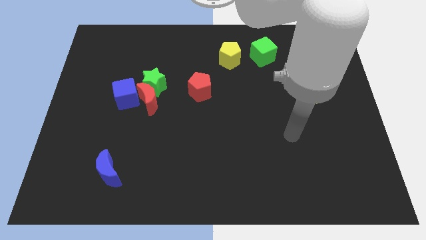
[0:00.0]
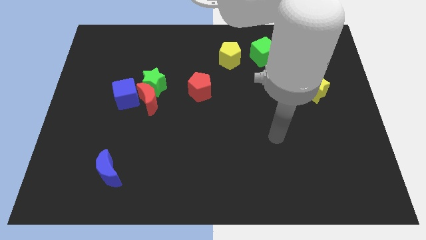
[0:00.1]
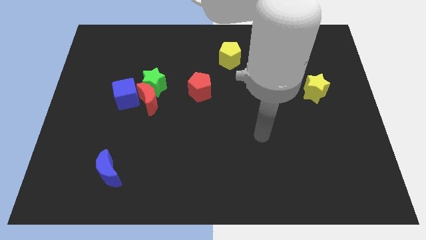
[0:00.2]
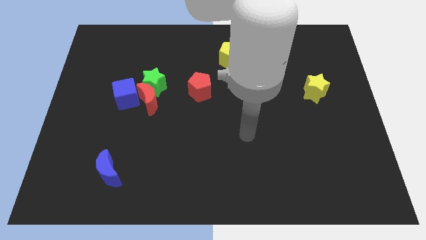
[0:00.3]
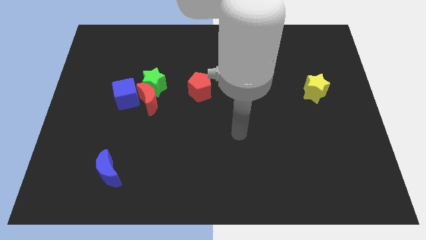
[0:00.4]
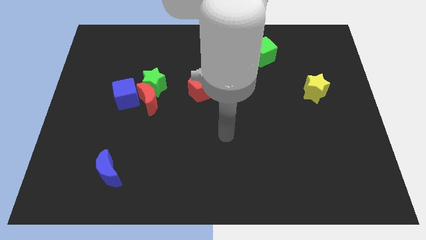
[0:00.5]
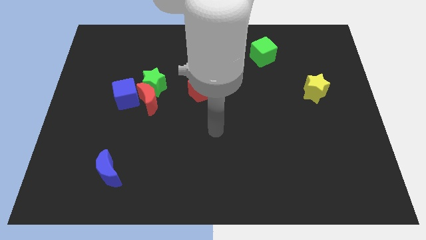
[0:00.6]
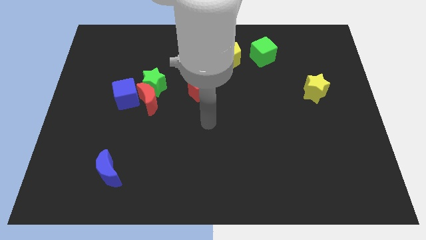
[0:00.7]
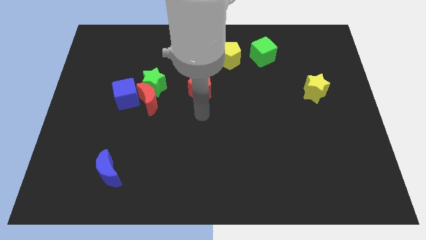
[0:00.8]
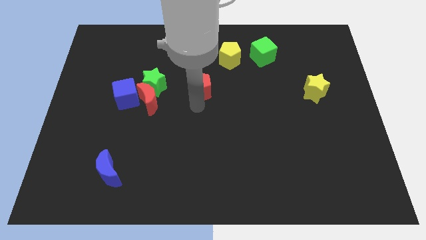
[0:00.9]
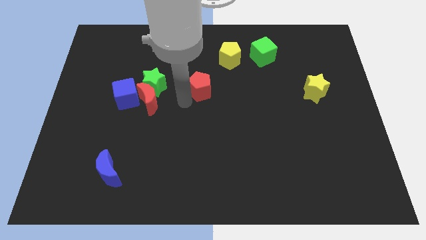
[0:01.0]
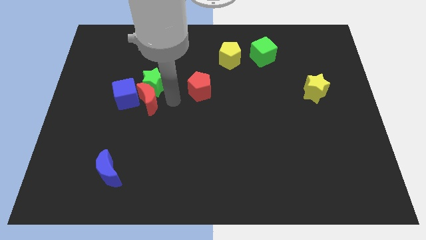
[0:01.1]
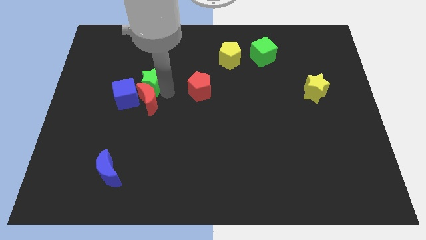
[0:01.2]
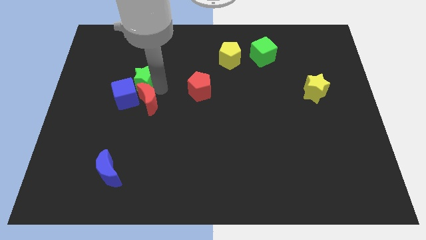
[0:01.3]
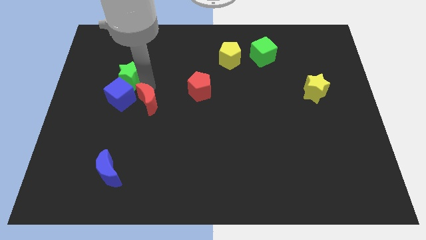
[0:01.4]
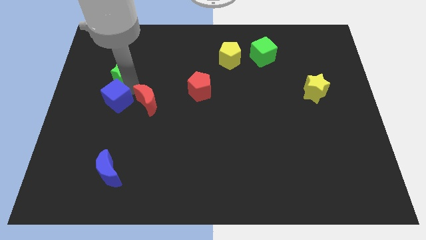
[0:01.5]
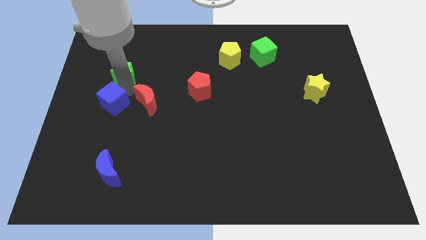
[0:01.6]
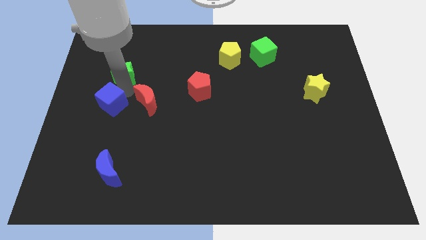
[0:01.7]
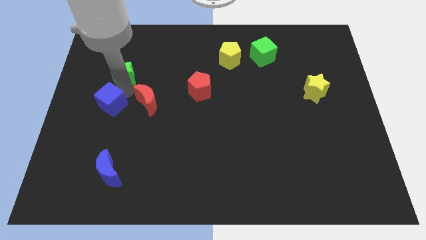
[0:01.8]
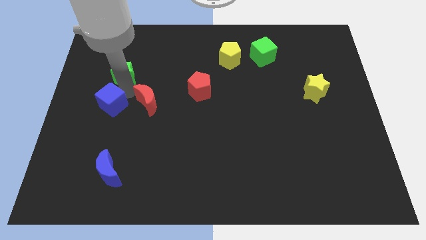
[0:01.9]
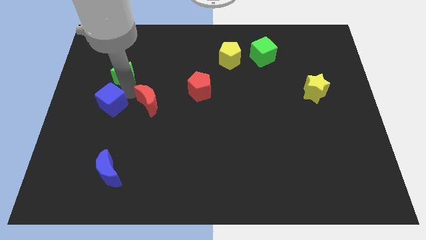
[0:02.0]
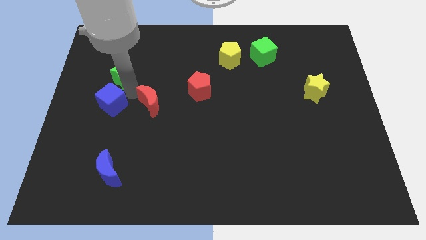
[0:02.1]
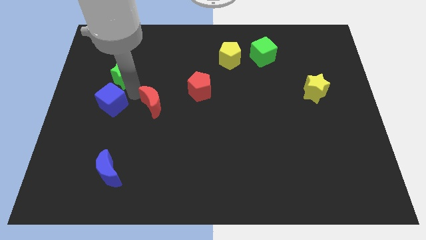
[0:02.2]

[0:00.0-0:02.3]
move the red moon away from the green star and blue cube

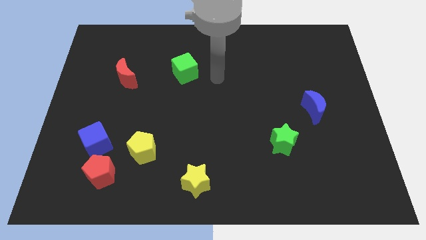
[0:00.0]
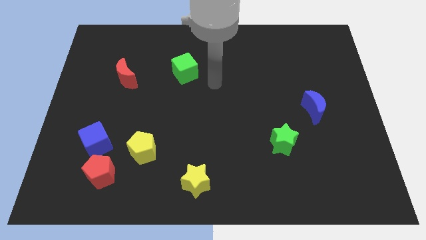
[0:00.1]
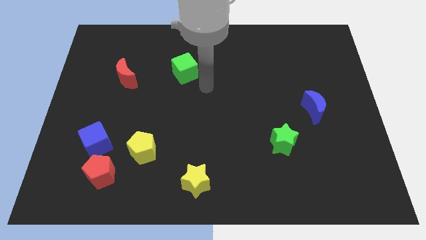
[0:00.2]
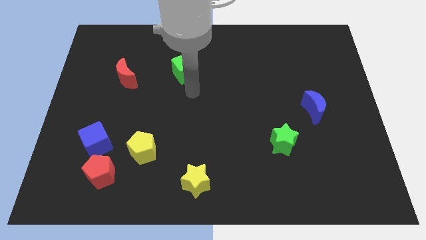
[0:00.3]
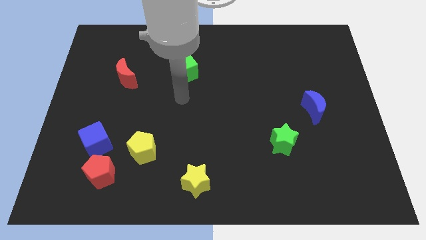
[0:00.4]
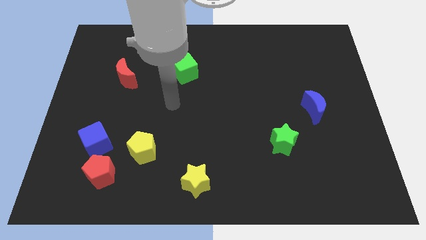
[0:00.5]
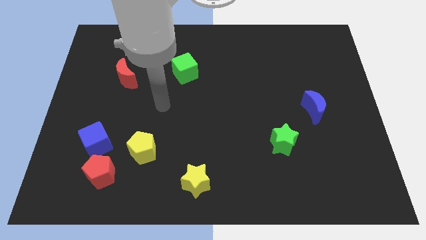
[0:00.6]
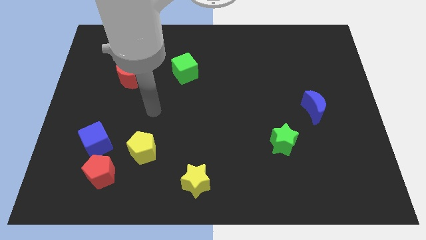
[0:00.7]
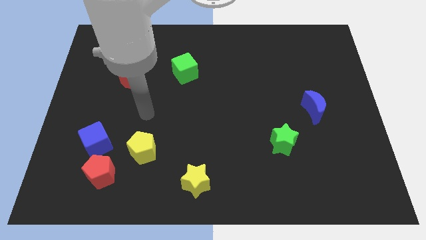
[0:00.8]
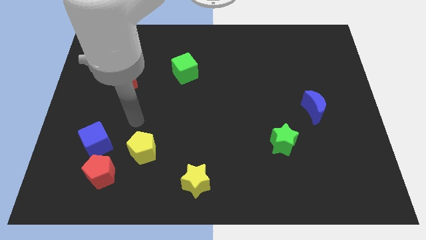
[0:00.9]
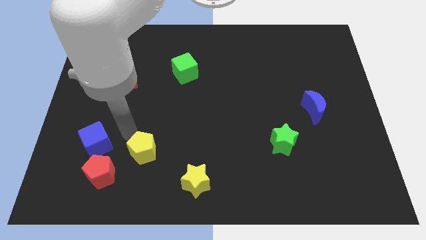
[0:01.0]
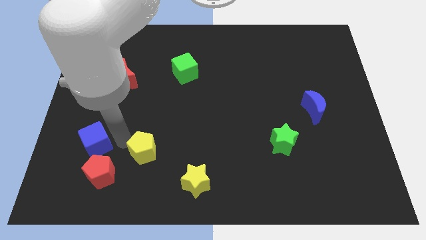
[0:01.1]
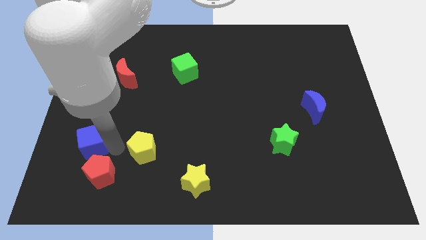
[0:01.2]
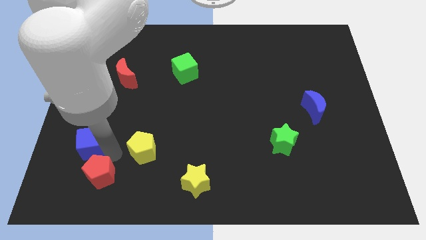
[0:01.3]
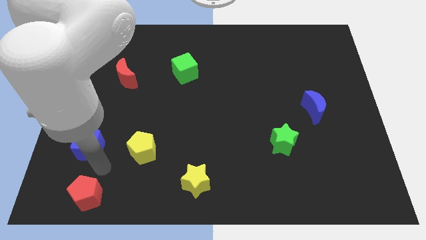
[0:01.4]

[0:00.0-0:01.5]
pull the blue cube apart from the red pentagon

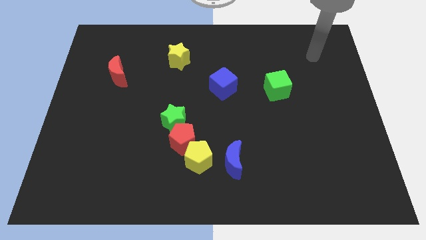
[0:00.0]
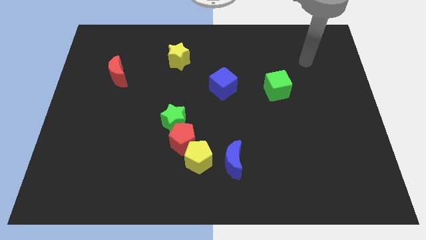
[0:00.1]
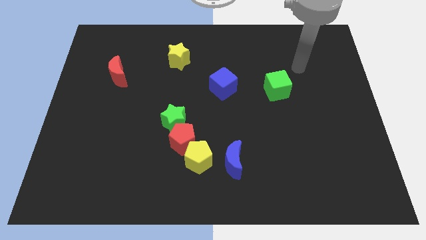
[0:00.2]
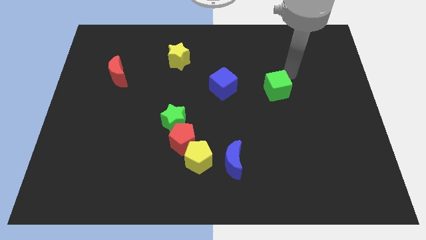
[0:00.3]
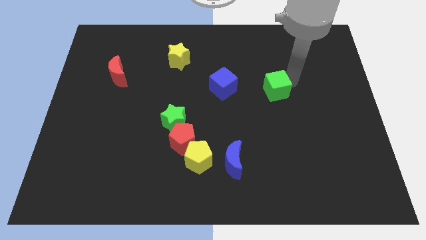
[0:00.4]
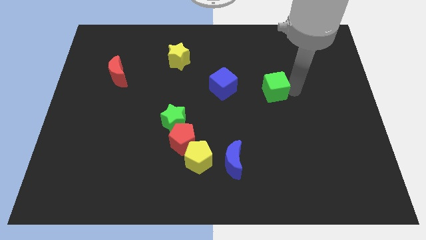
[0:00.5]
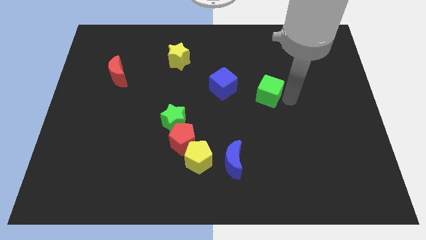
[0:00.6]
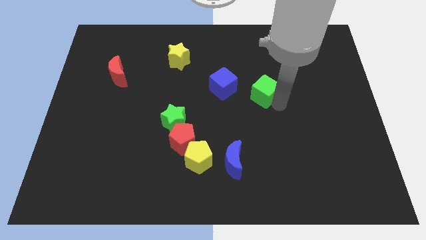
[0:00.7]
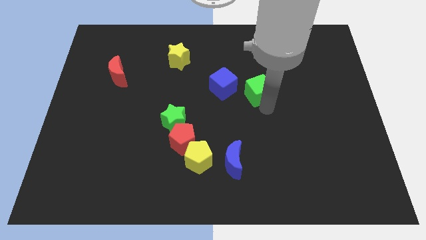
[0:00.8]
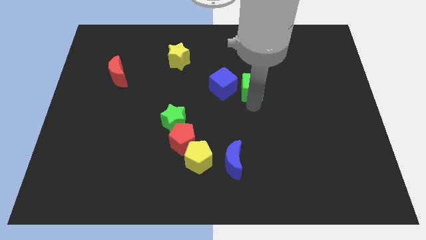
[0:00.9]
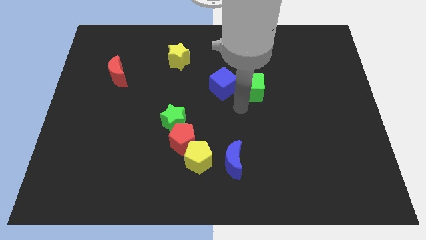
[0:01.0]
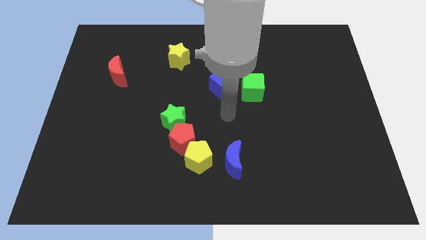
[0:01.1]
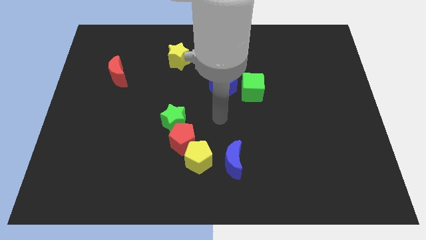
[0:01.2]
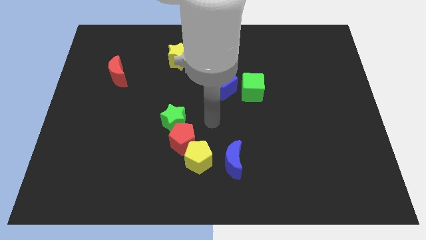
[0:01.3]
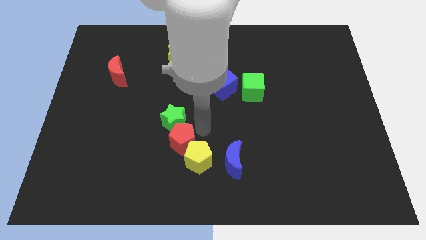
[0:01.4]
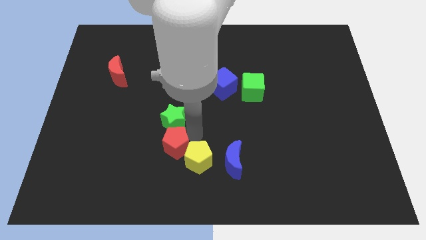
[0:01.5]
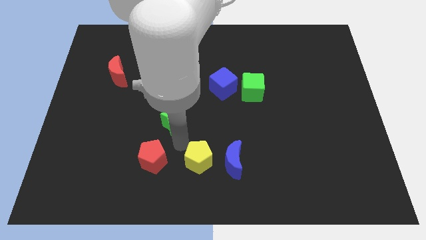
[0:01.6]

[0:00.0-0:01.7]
move the green star away from the red pentagon

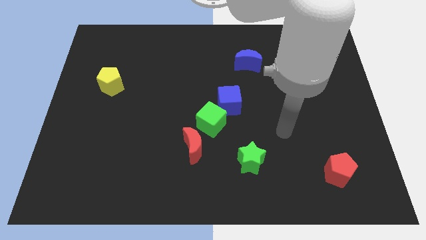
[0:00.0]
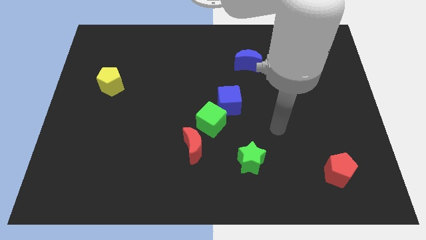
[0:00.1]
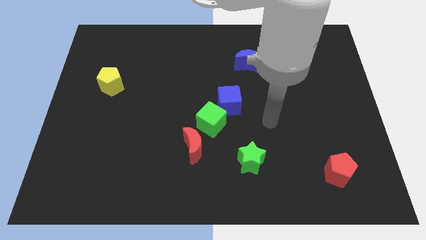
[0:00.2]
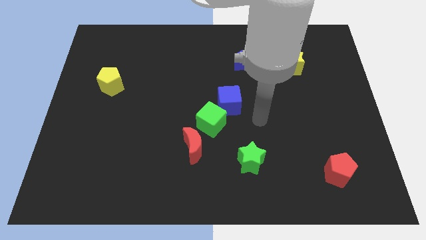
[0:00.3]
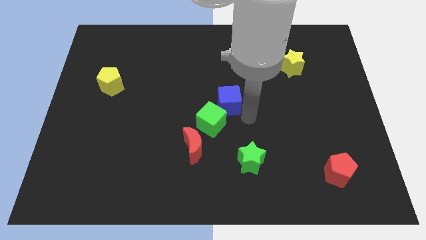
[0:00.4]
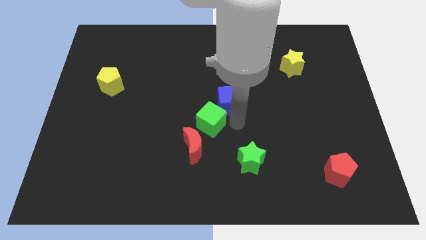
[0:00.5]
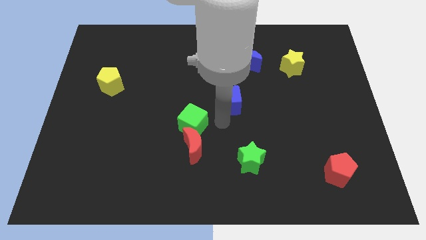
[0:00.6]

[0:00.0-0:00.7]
pull the blue cube apart from the green cube

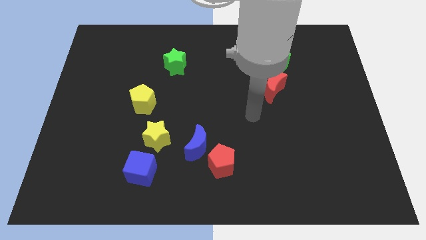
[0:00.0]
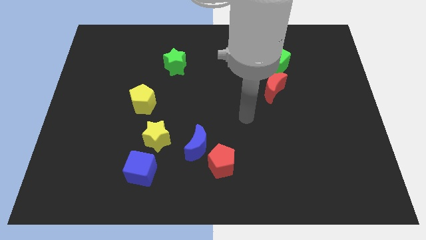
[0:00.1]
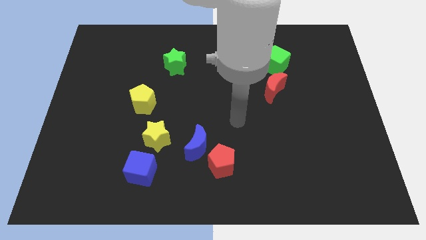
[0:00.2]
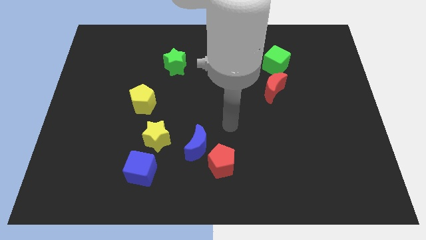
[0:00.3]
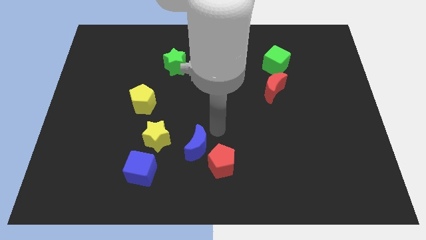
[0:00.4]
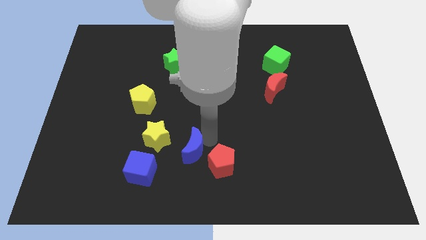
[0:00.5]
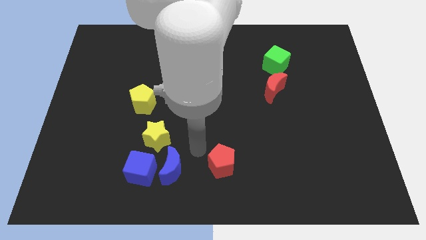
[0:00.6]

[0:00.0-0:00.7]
move the red pentagon away from the blue moon

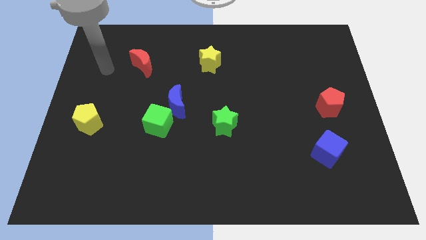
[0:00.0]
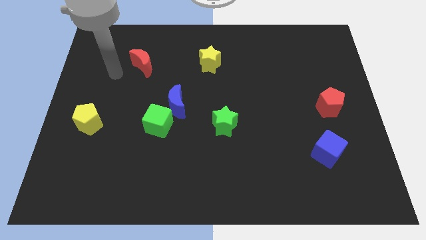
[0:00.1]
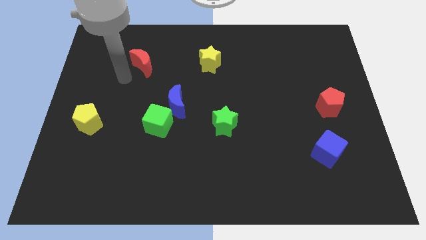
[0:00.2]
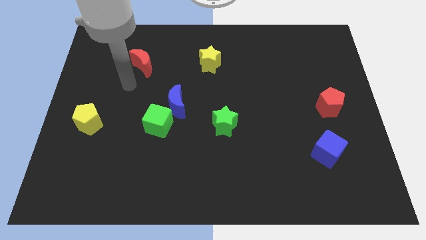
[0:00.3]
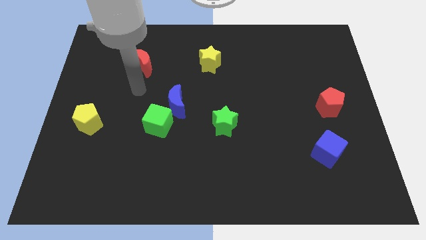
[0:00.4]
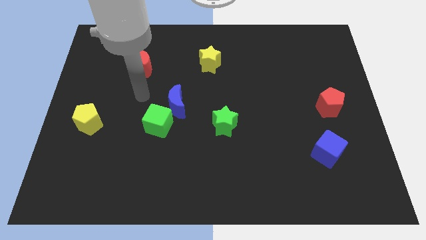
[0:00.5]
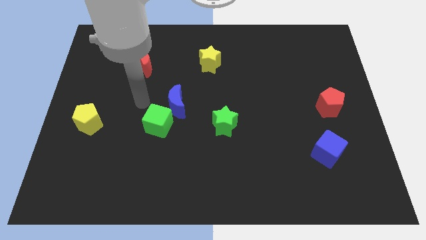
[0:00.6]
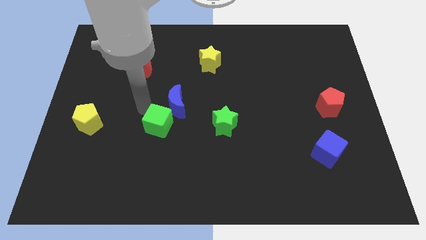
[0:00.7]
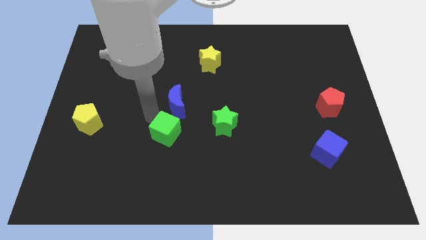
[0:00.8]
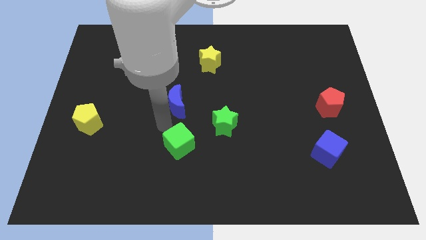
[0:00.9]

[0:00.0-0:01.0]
pull the blue moon apart from the green cube

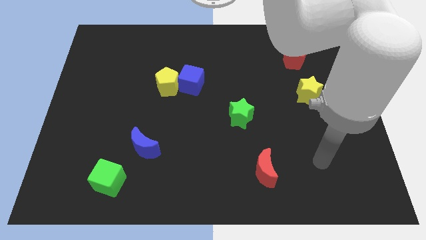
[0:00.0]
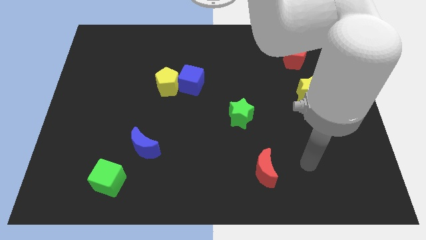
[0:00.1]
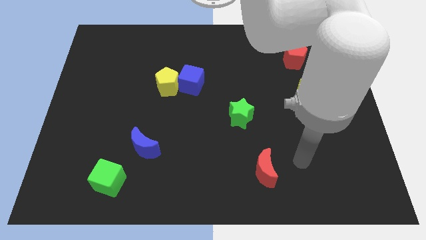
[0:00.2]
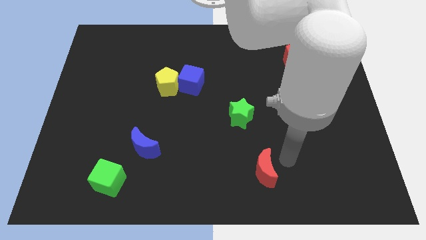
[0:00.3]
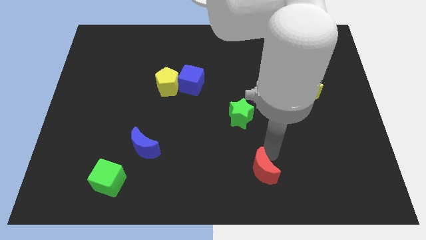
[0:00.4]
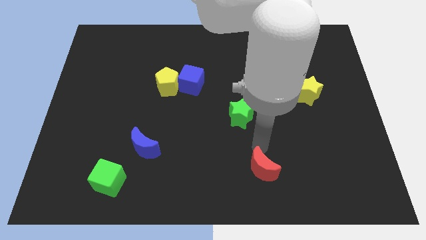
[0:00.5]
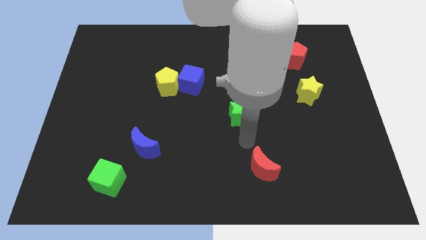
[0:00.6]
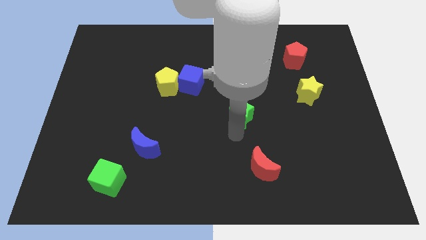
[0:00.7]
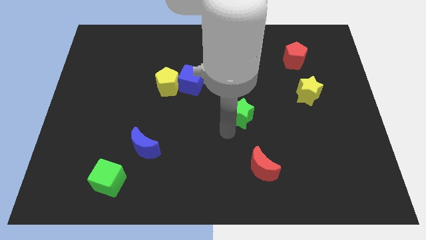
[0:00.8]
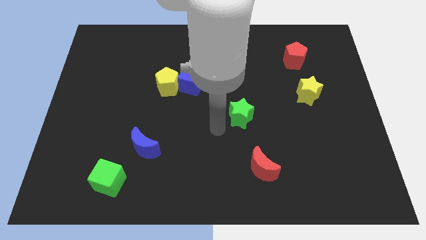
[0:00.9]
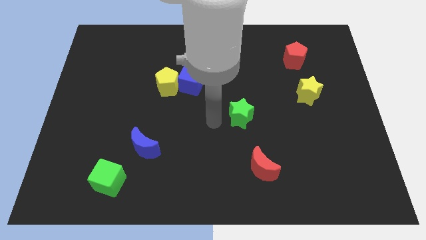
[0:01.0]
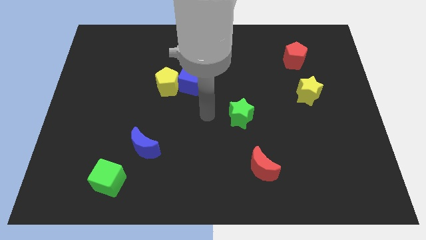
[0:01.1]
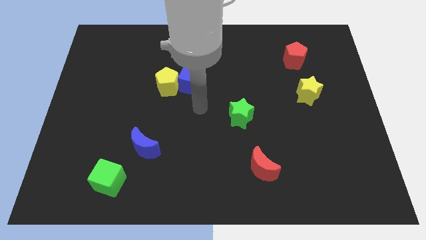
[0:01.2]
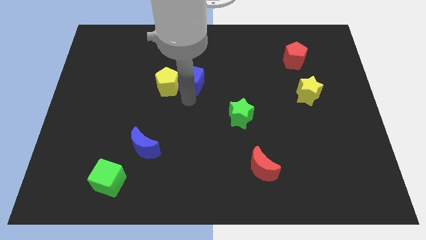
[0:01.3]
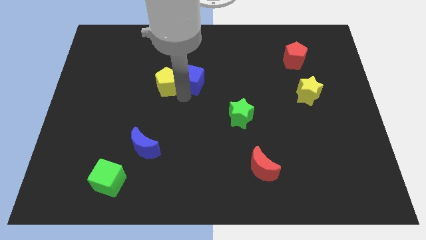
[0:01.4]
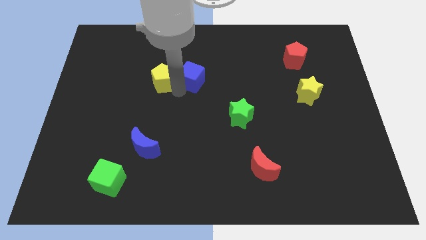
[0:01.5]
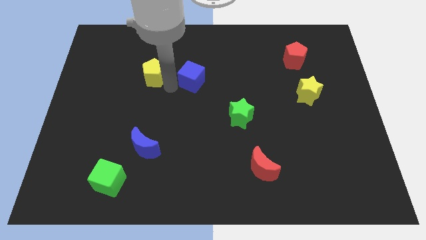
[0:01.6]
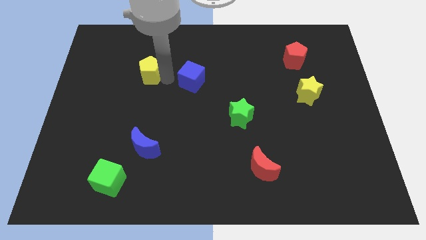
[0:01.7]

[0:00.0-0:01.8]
move the blue cube away from the yellow pentagon
